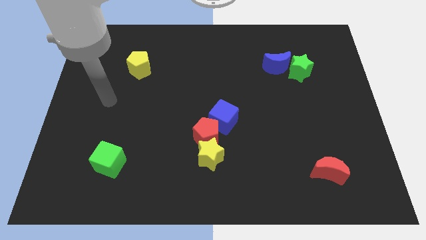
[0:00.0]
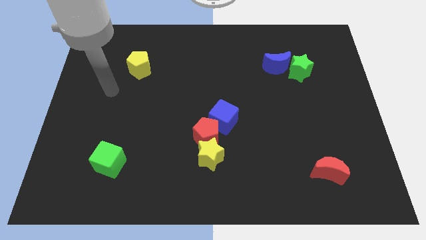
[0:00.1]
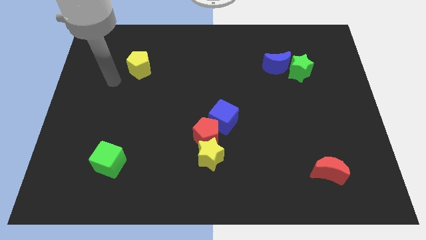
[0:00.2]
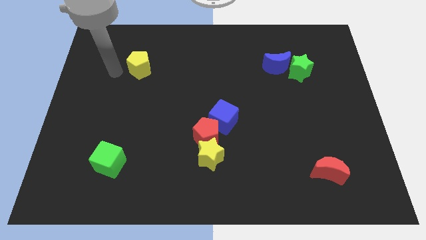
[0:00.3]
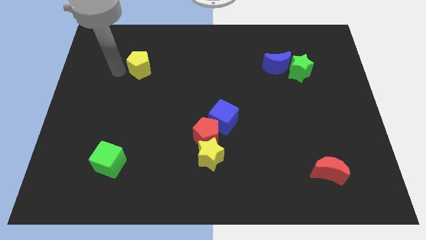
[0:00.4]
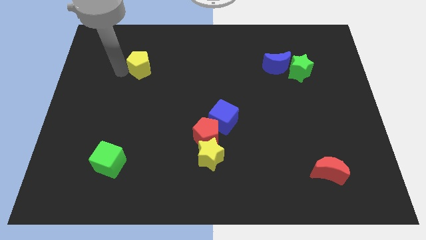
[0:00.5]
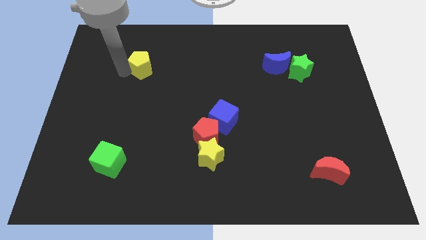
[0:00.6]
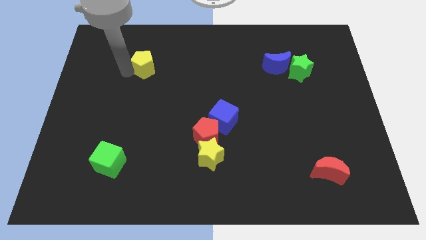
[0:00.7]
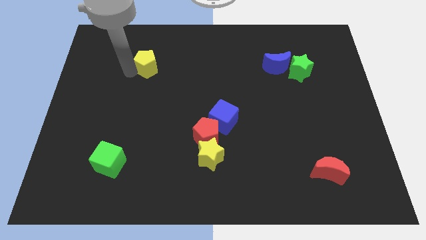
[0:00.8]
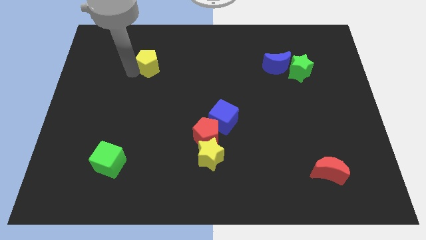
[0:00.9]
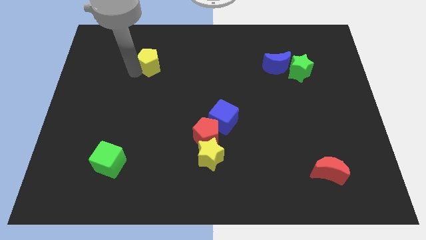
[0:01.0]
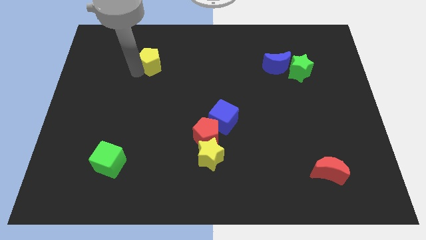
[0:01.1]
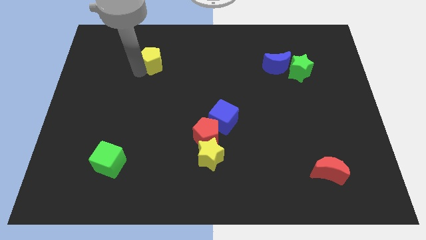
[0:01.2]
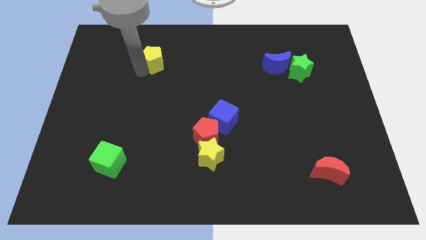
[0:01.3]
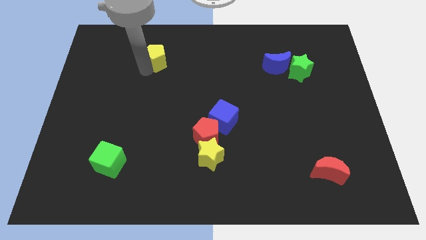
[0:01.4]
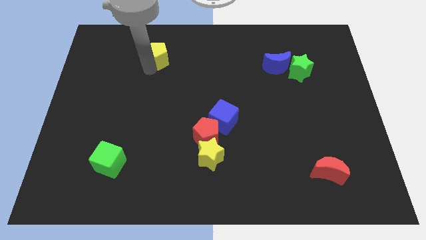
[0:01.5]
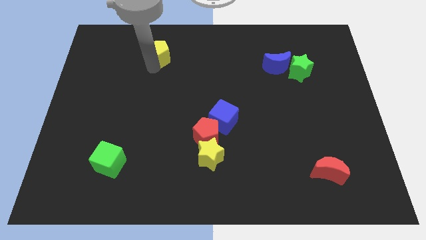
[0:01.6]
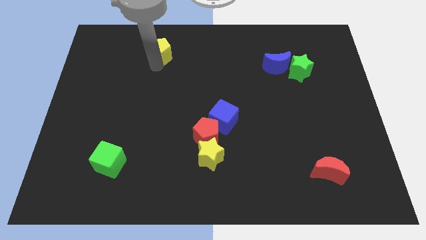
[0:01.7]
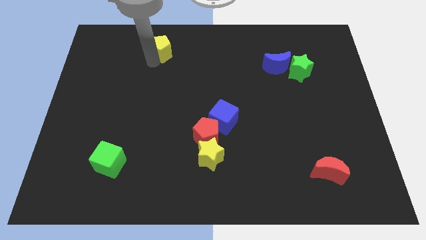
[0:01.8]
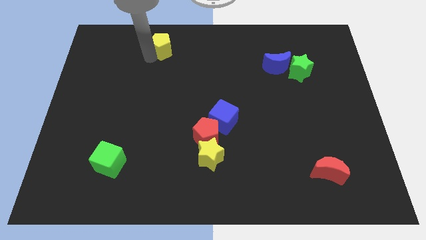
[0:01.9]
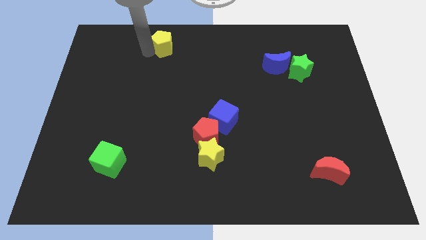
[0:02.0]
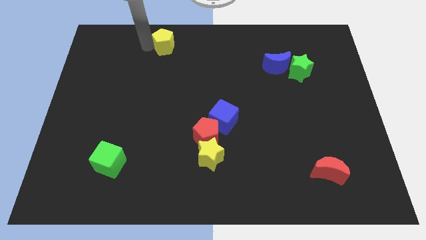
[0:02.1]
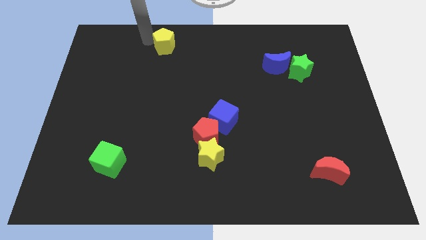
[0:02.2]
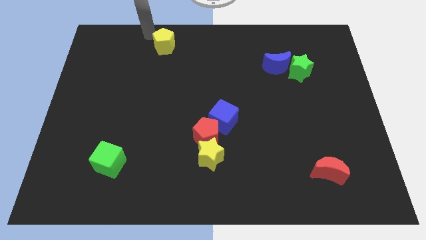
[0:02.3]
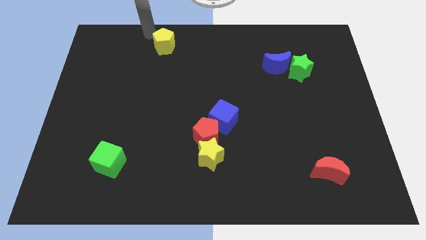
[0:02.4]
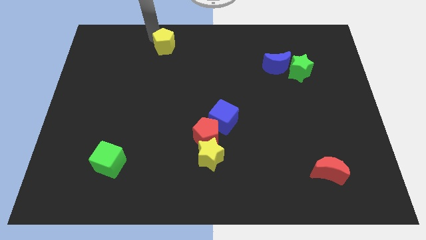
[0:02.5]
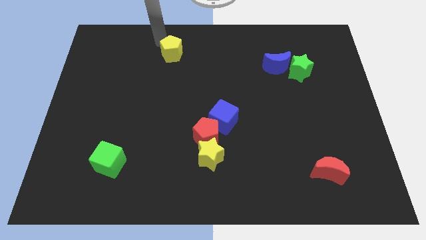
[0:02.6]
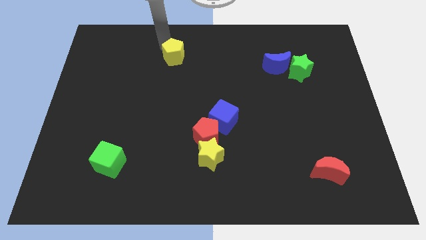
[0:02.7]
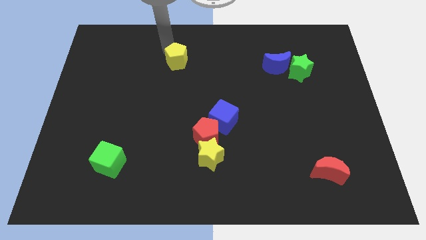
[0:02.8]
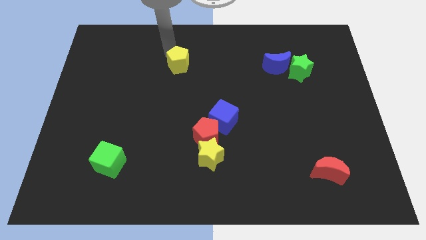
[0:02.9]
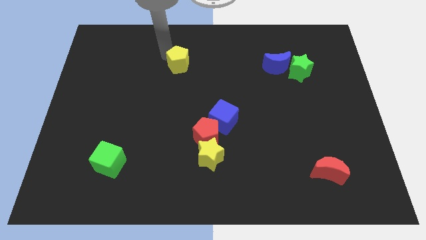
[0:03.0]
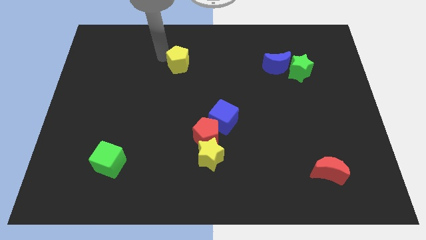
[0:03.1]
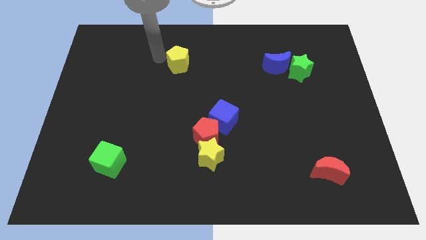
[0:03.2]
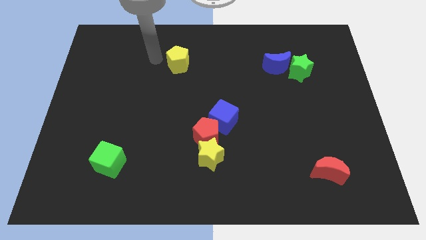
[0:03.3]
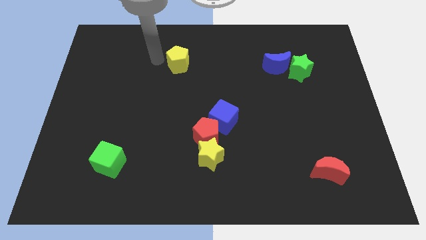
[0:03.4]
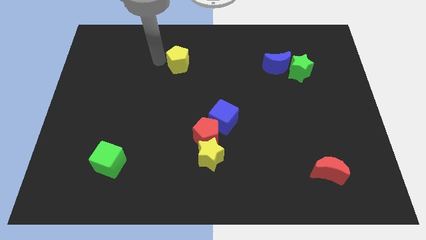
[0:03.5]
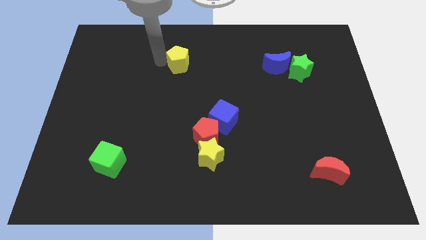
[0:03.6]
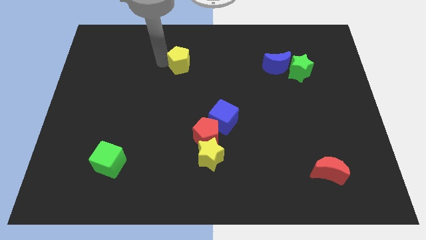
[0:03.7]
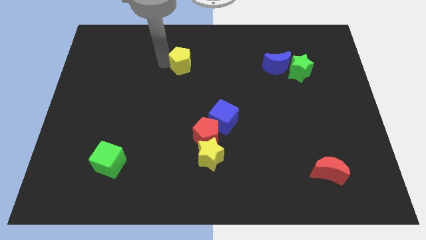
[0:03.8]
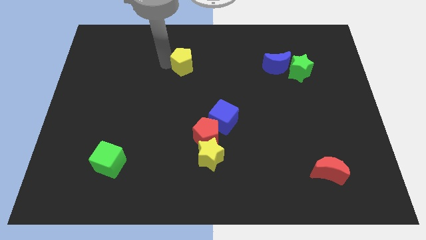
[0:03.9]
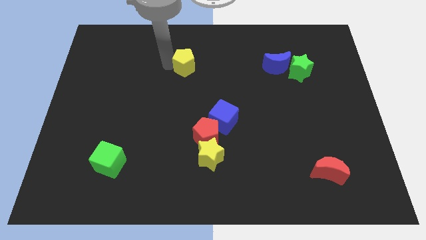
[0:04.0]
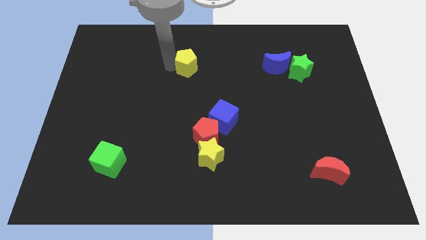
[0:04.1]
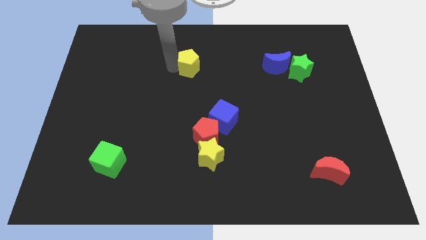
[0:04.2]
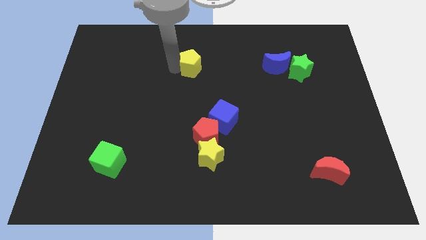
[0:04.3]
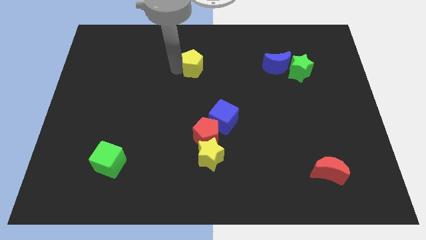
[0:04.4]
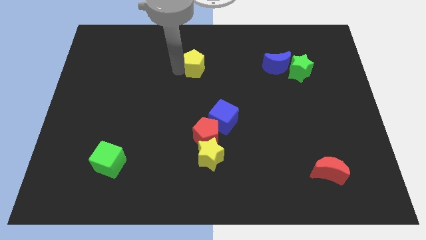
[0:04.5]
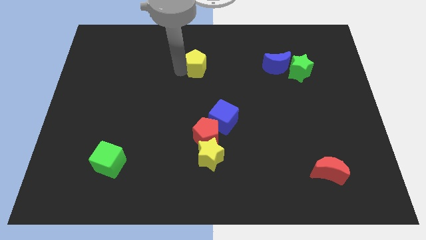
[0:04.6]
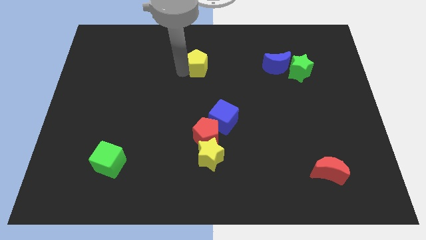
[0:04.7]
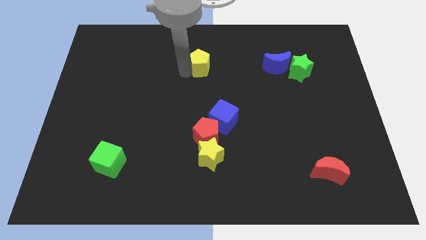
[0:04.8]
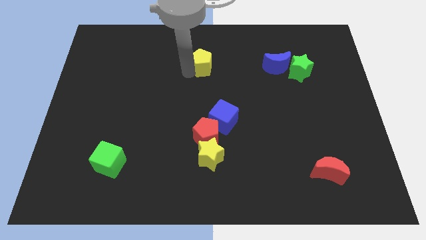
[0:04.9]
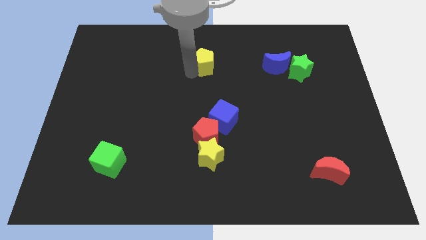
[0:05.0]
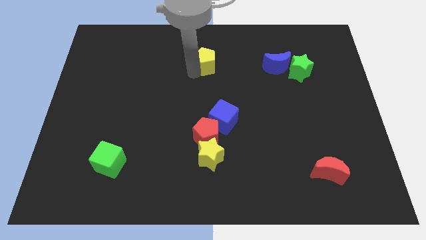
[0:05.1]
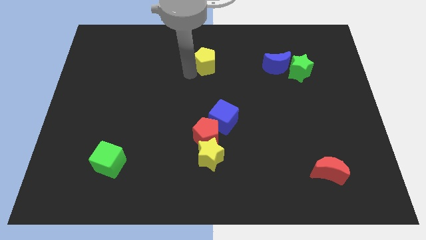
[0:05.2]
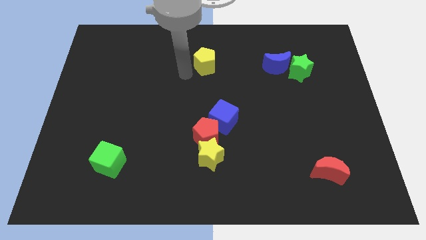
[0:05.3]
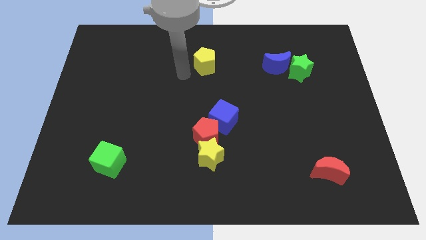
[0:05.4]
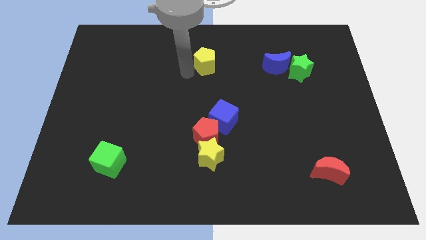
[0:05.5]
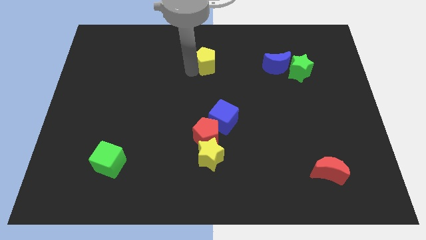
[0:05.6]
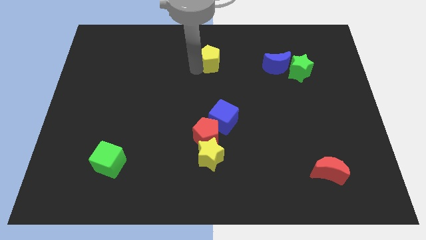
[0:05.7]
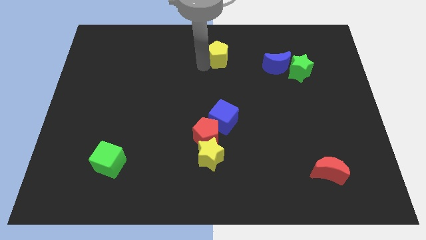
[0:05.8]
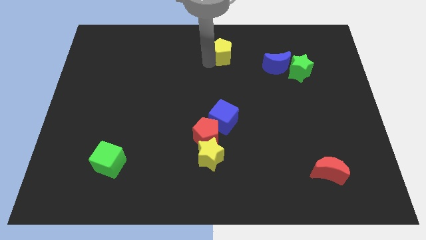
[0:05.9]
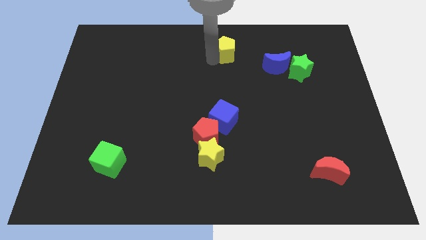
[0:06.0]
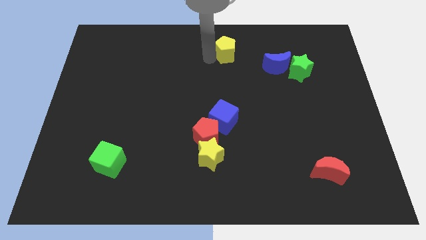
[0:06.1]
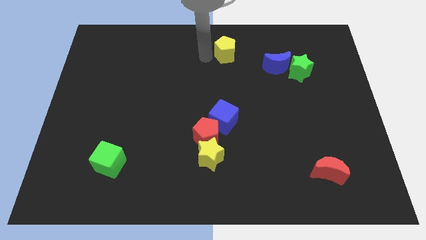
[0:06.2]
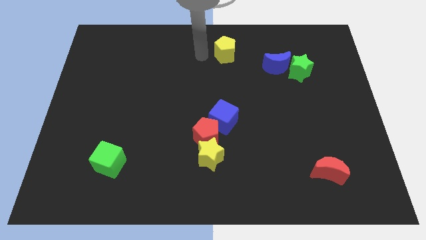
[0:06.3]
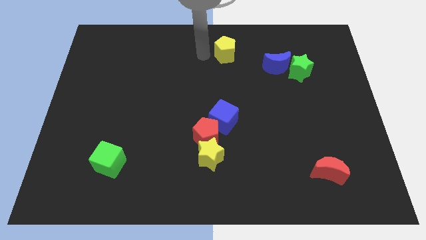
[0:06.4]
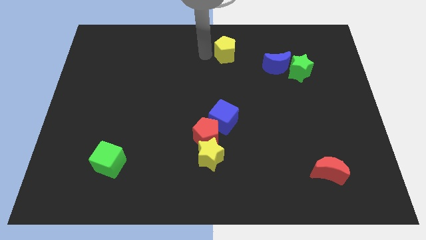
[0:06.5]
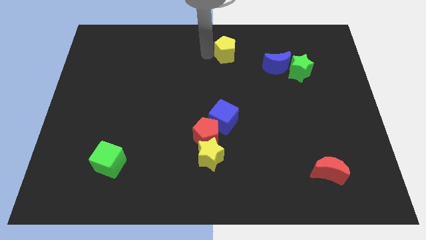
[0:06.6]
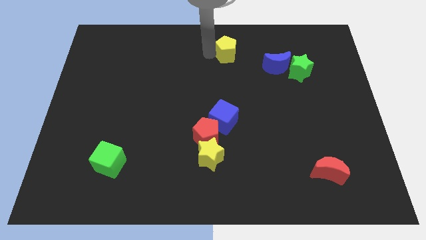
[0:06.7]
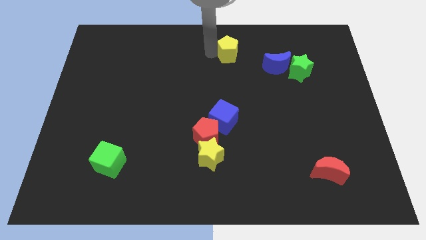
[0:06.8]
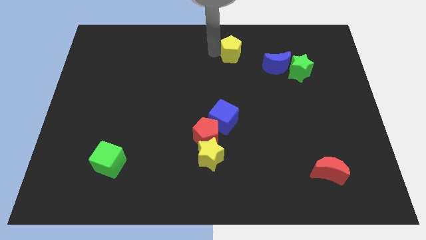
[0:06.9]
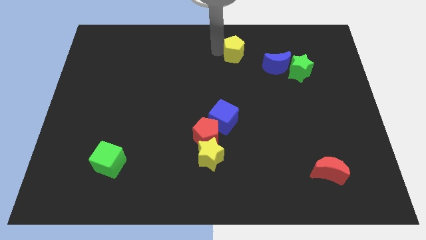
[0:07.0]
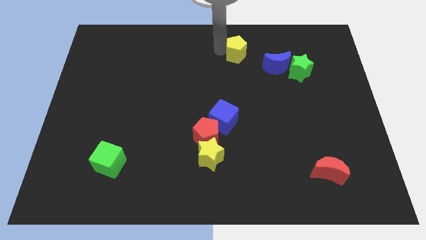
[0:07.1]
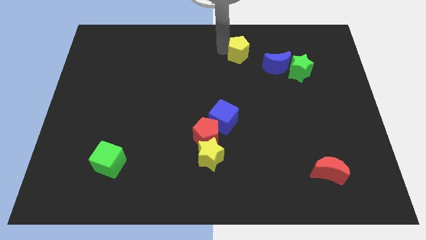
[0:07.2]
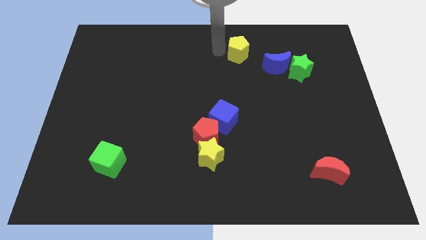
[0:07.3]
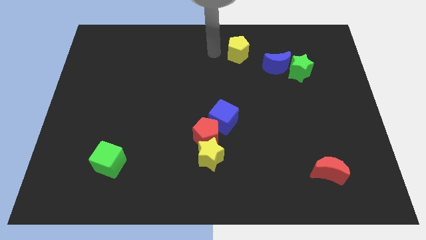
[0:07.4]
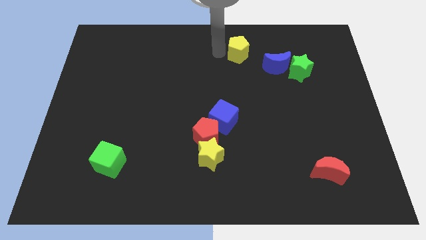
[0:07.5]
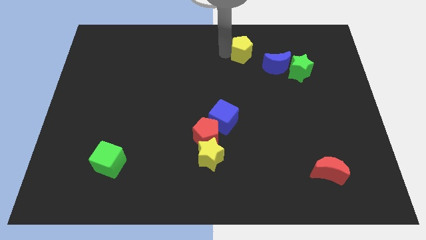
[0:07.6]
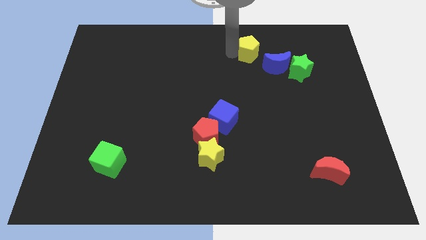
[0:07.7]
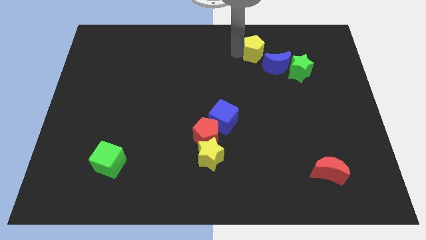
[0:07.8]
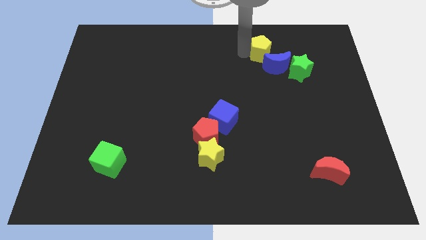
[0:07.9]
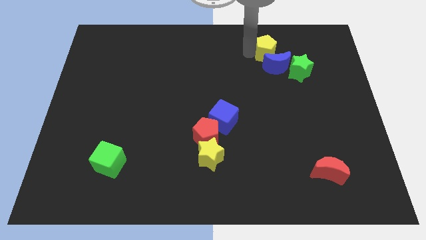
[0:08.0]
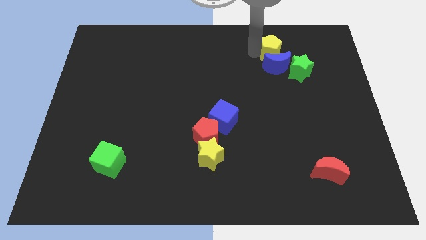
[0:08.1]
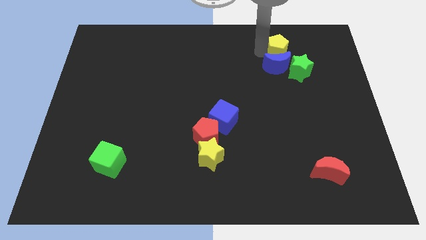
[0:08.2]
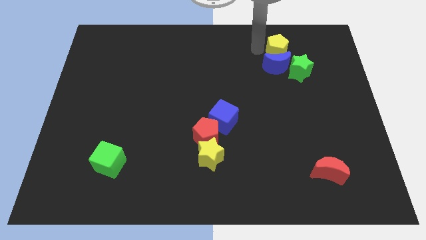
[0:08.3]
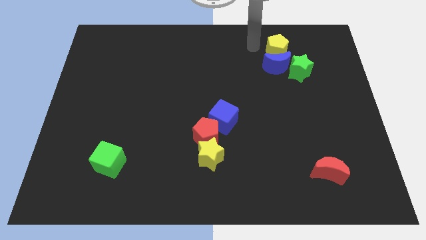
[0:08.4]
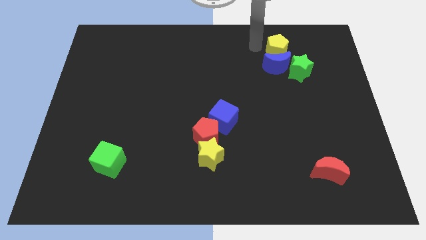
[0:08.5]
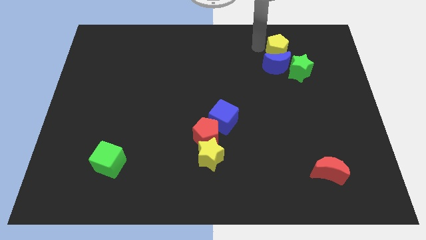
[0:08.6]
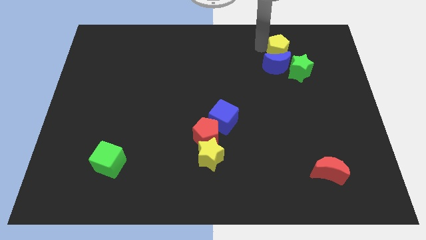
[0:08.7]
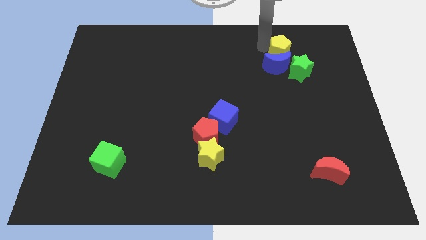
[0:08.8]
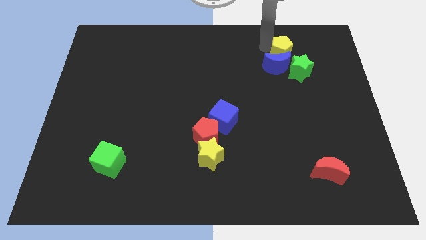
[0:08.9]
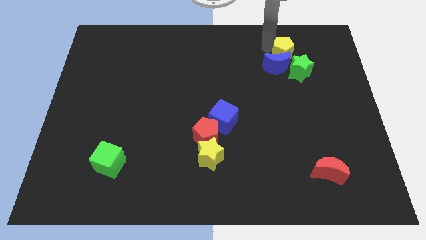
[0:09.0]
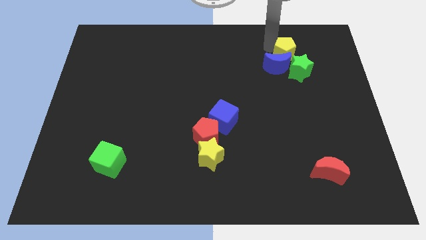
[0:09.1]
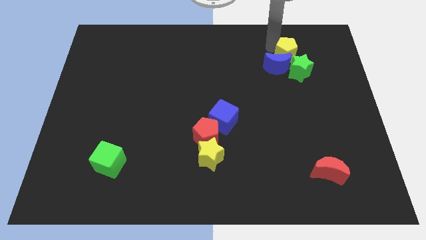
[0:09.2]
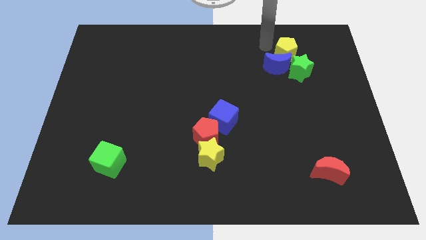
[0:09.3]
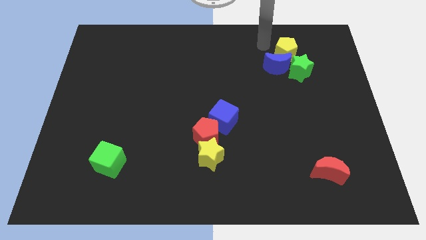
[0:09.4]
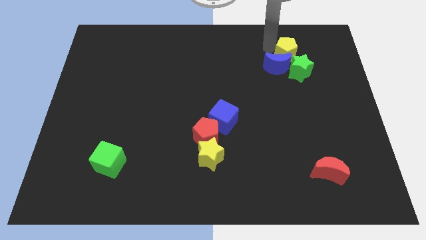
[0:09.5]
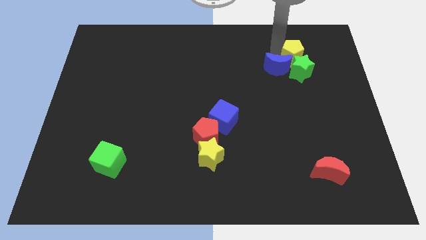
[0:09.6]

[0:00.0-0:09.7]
push the yellow pentagon right of the blue moon
